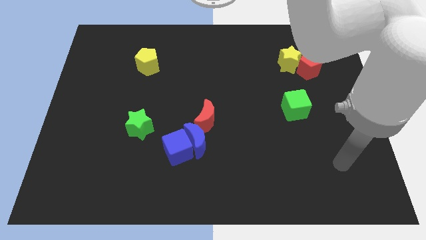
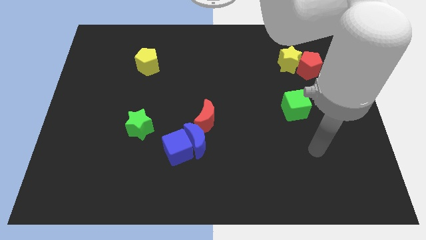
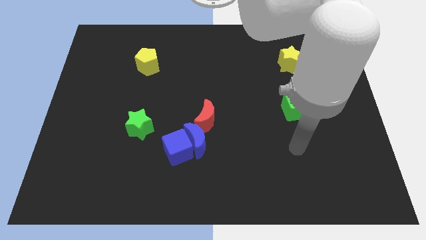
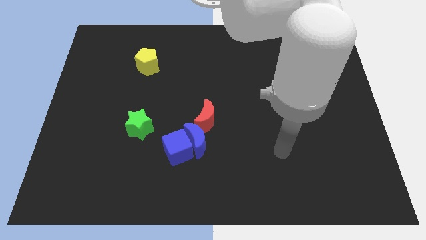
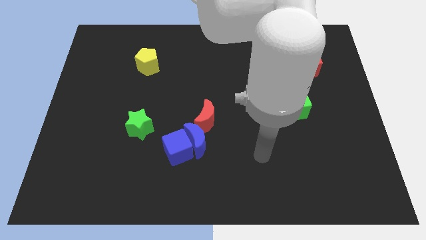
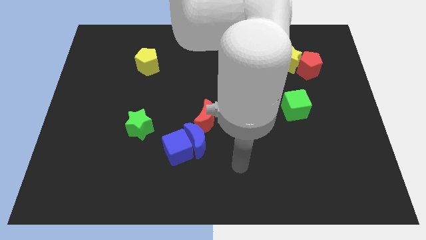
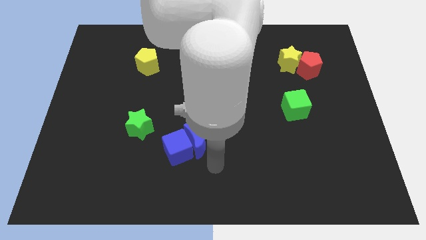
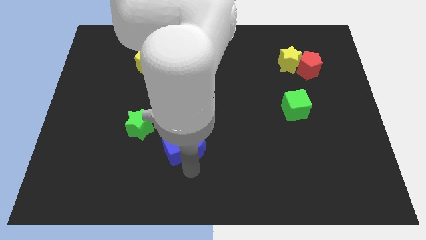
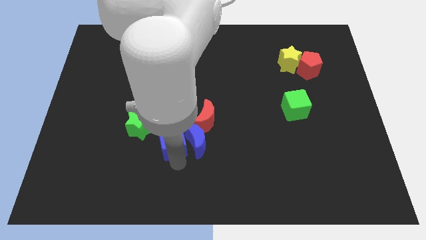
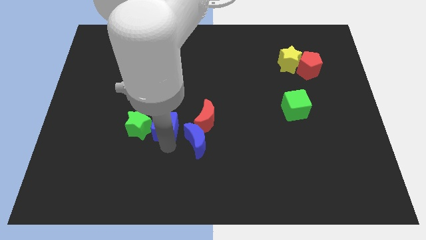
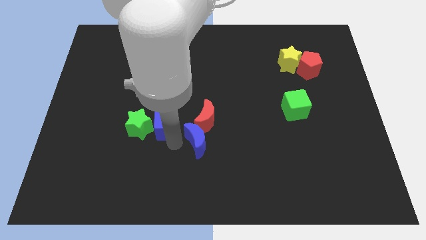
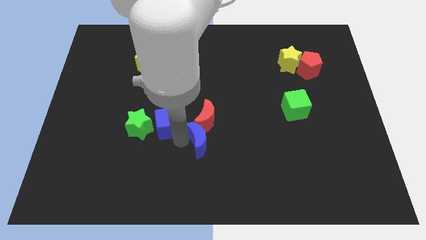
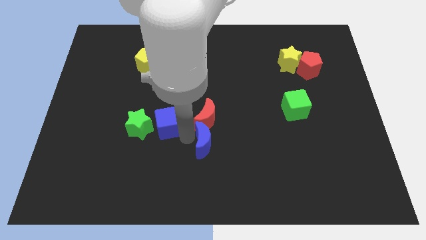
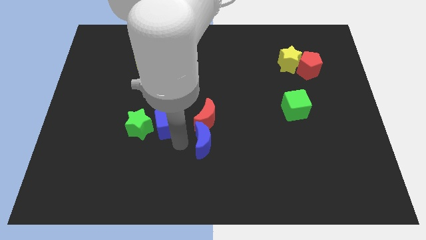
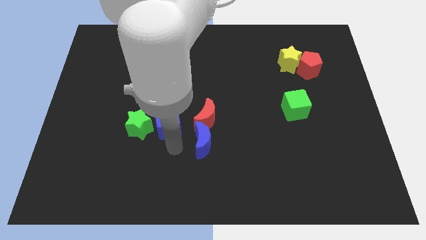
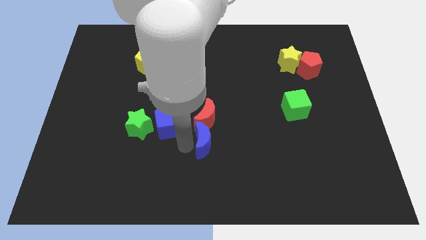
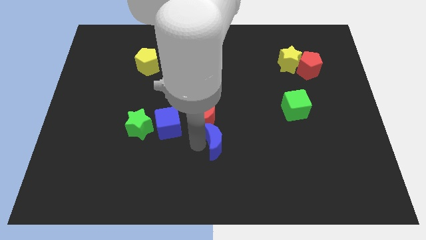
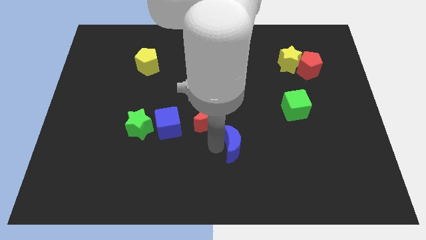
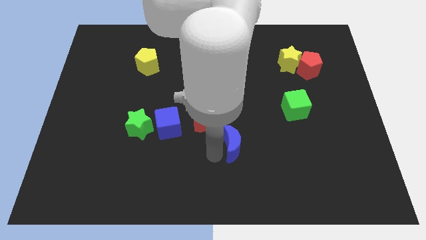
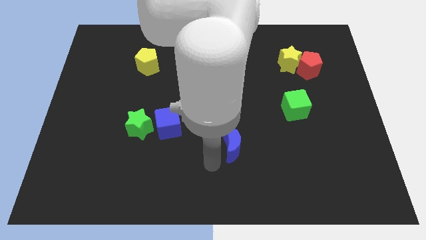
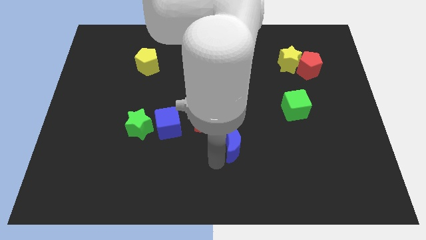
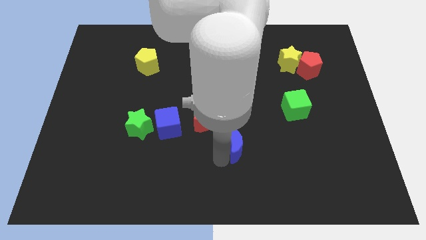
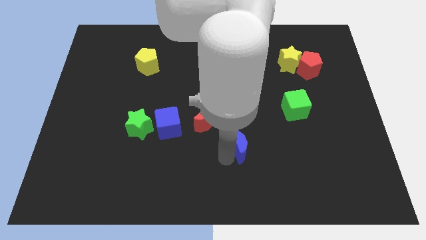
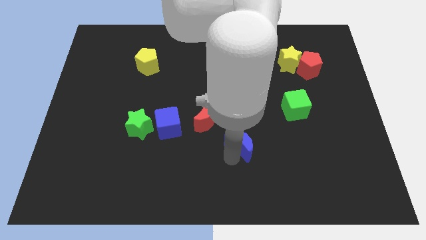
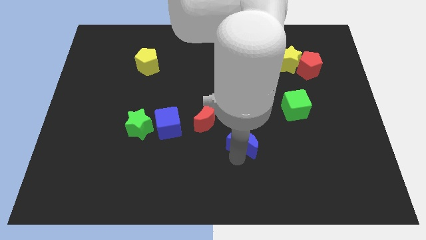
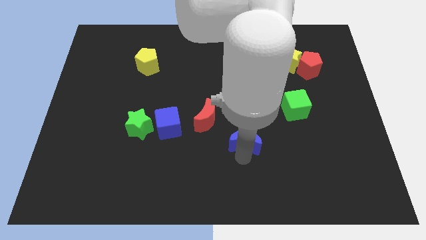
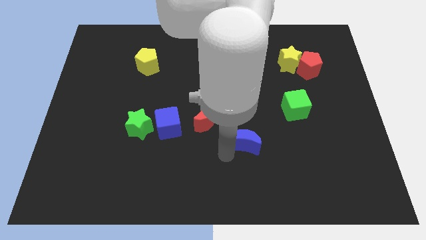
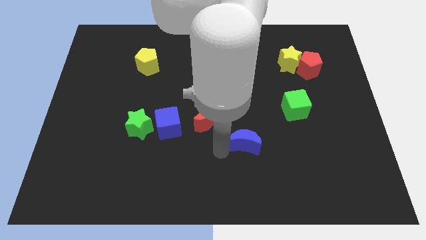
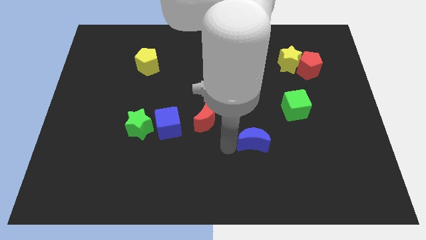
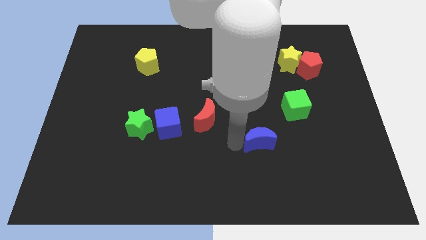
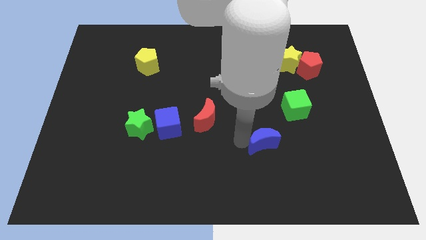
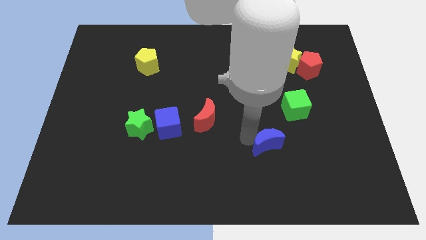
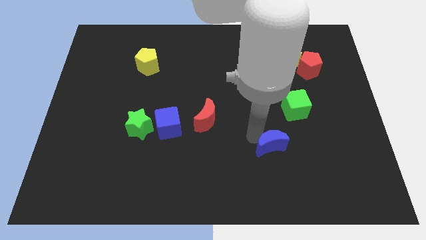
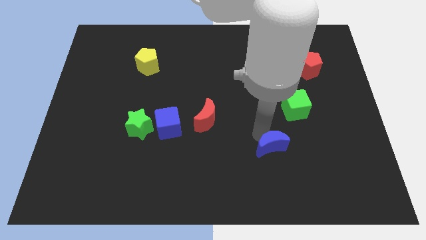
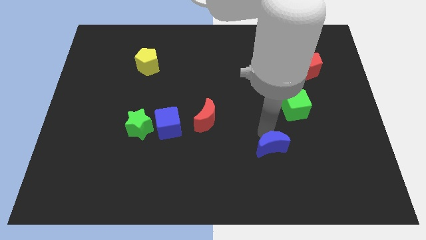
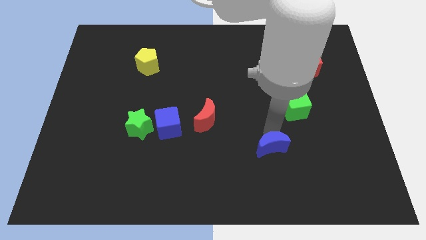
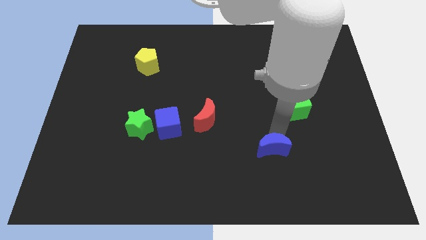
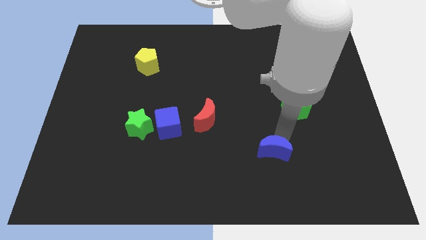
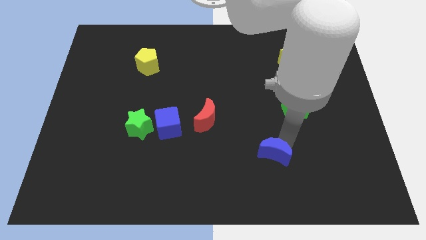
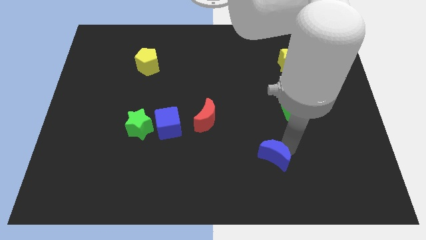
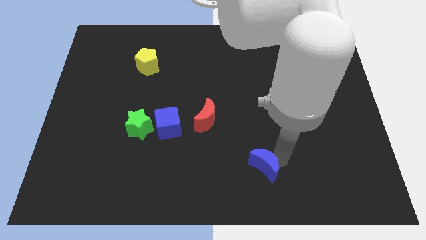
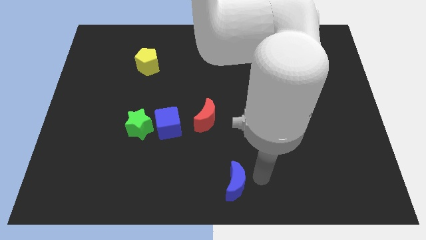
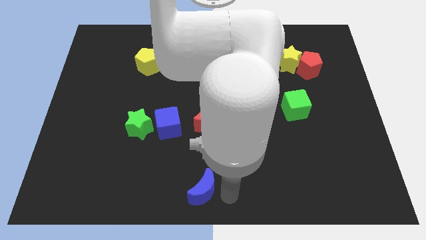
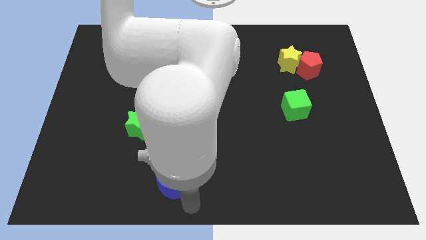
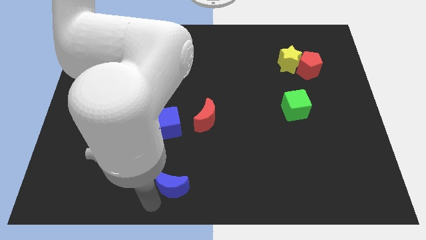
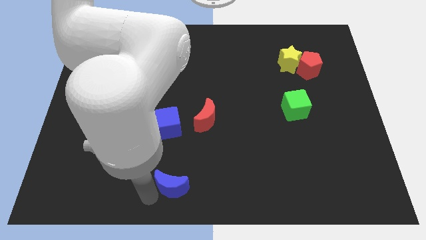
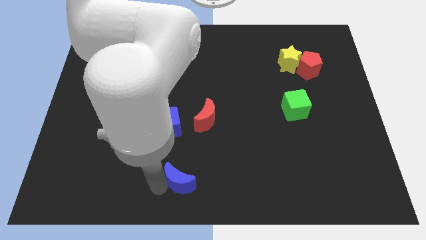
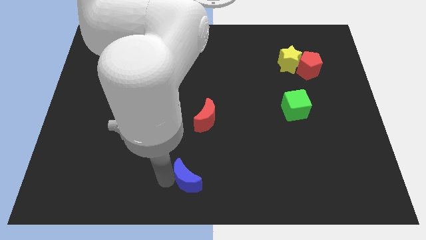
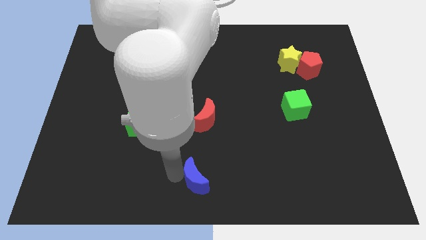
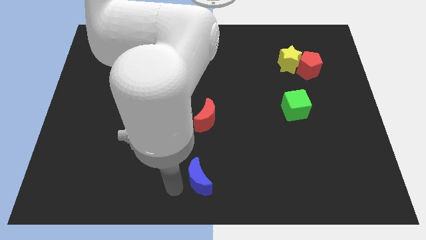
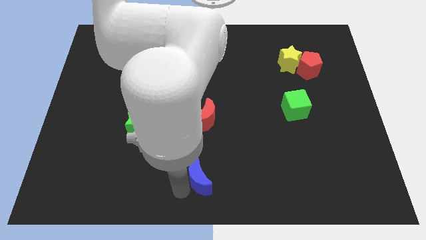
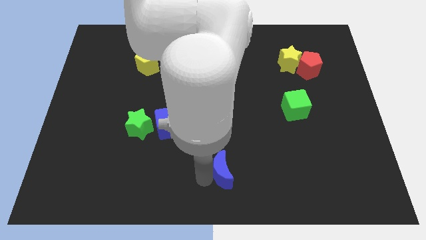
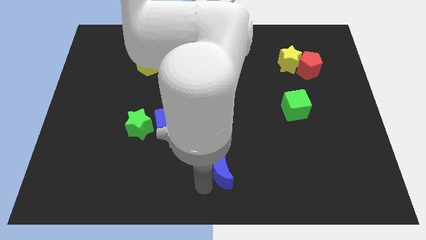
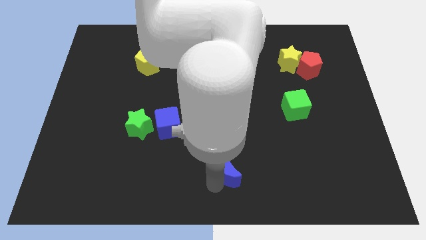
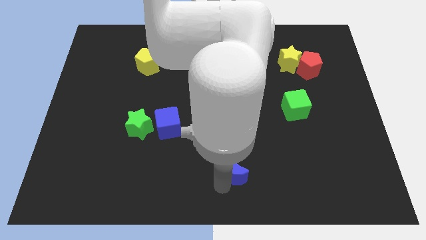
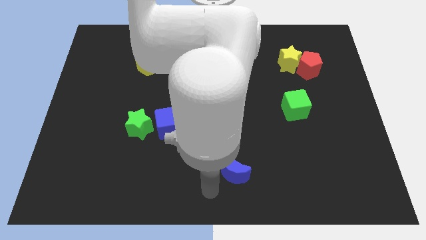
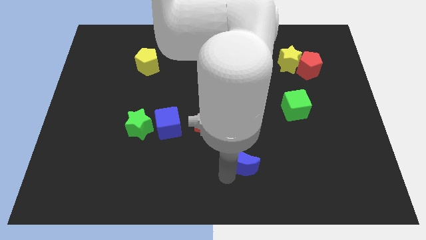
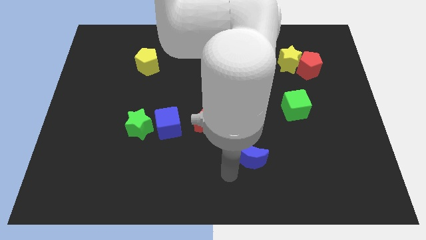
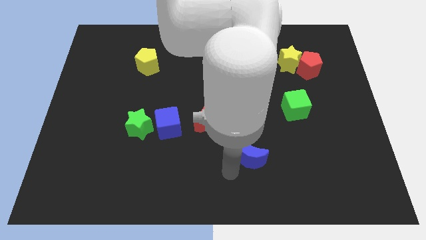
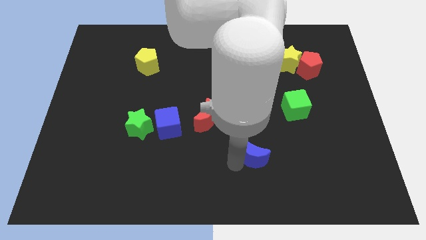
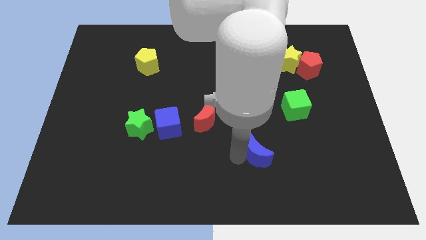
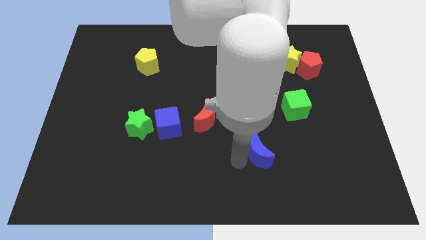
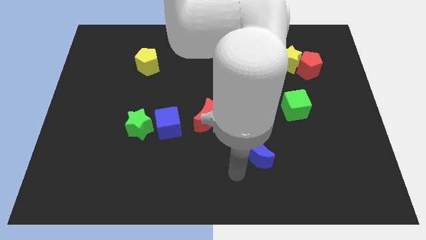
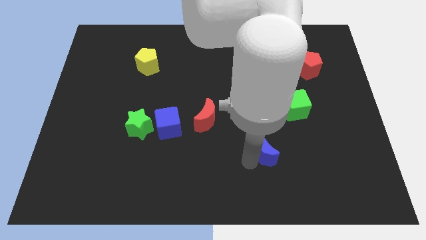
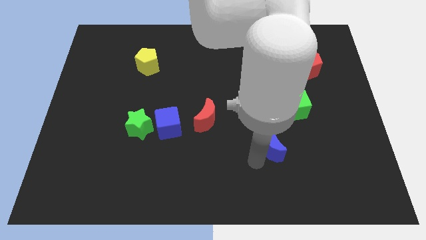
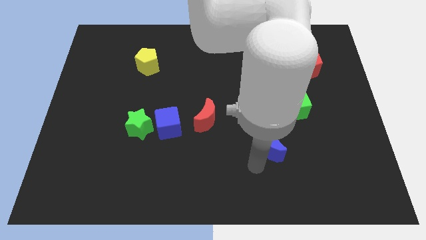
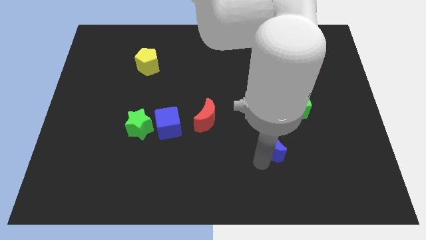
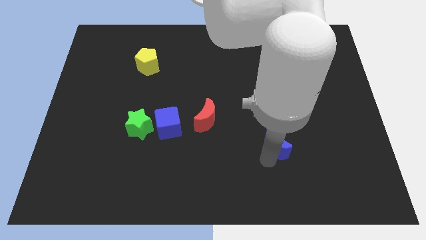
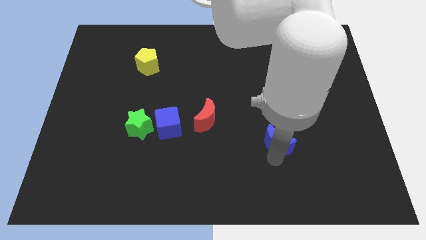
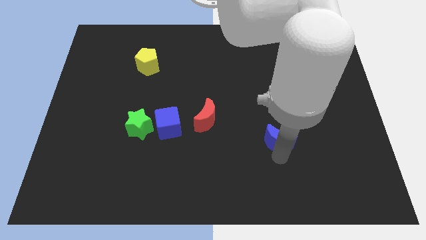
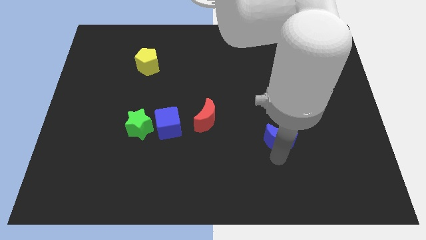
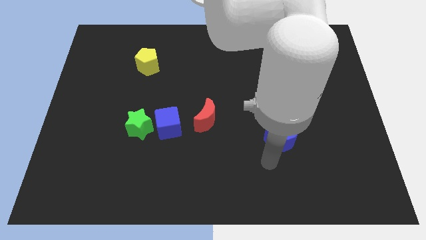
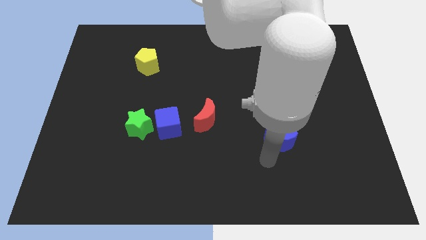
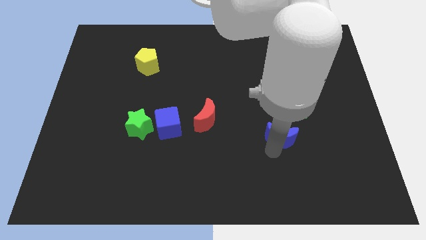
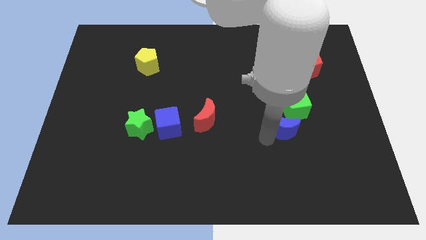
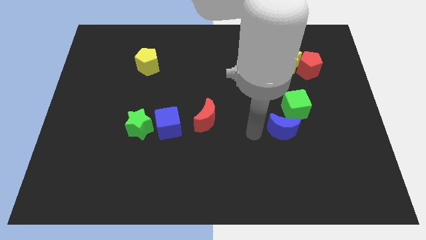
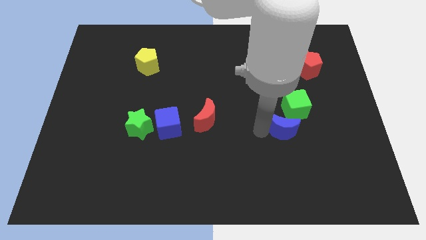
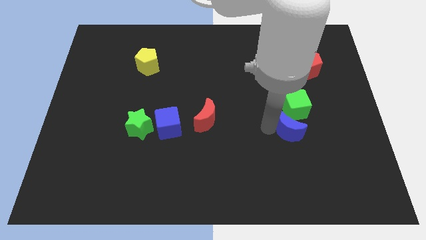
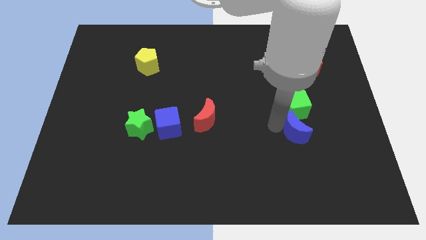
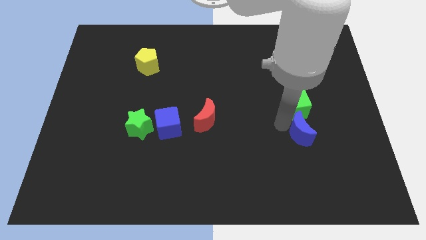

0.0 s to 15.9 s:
put the blue moon diagonally down and to the right of the green cube
